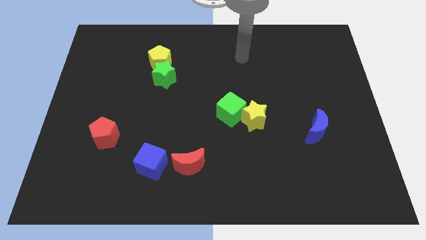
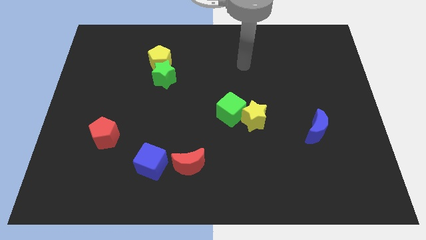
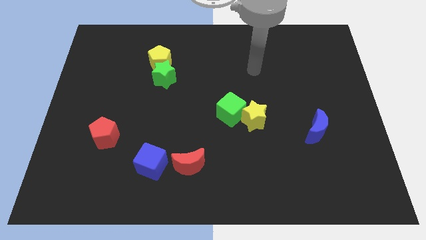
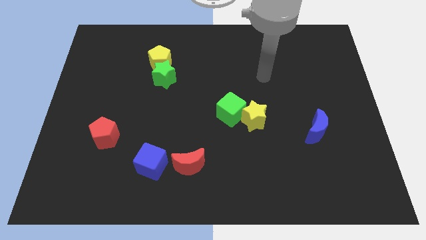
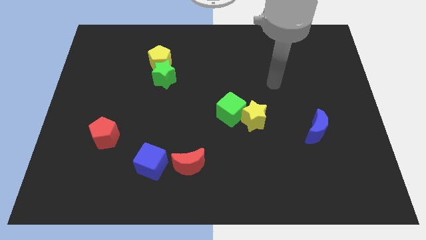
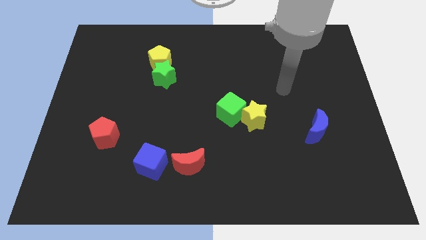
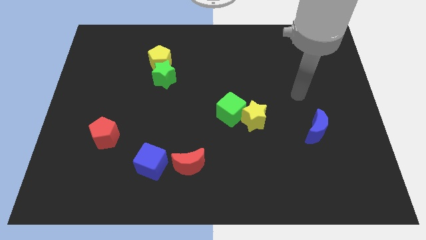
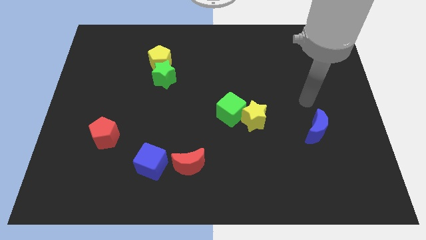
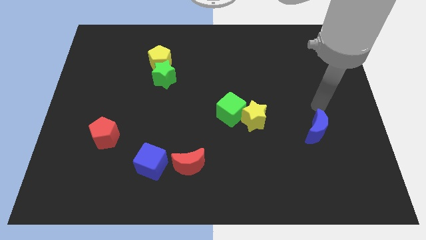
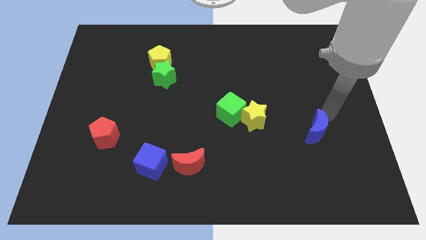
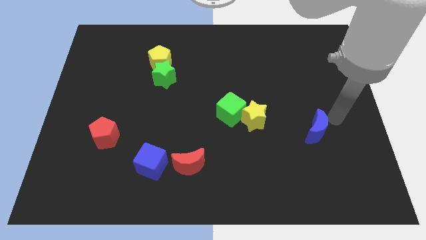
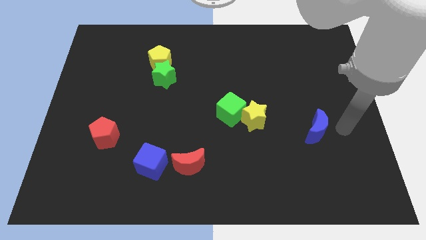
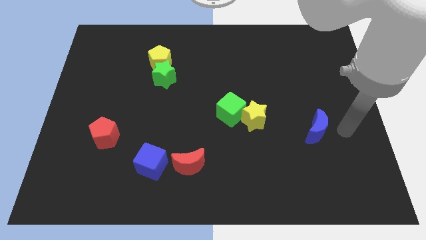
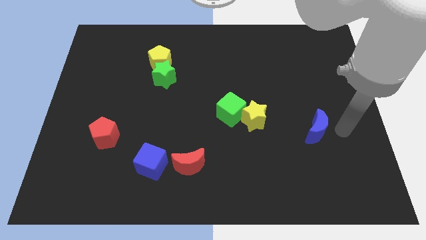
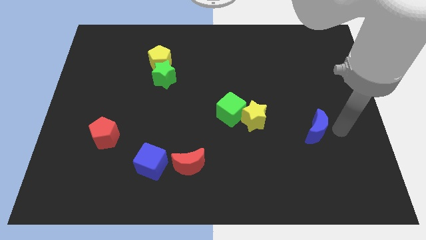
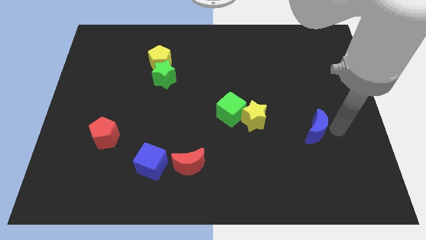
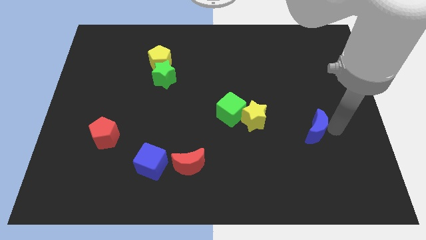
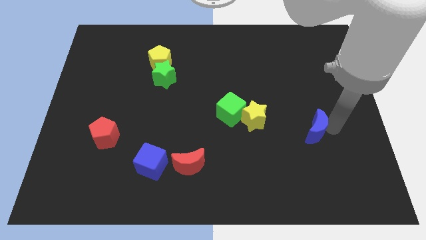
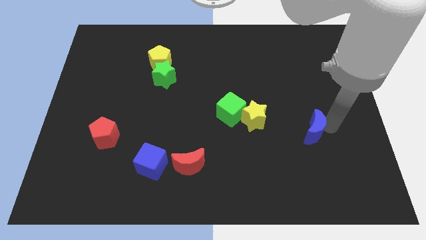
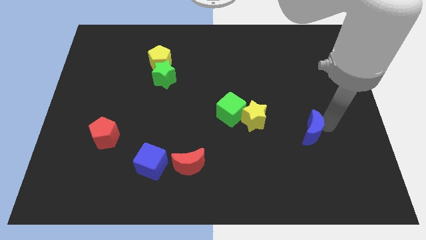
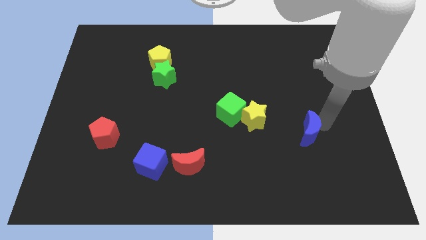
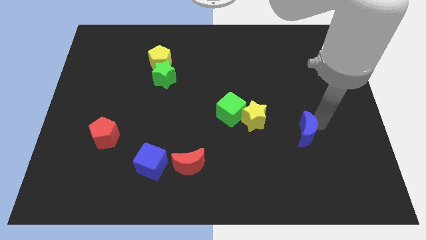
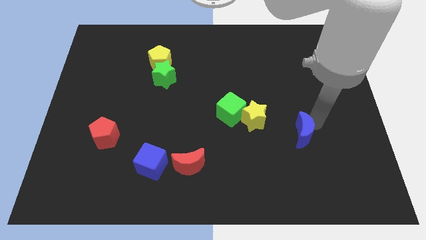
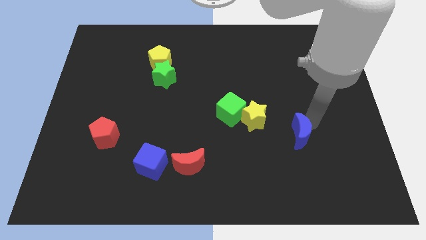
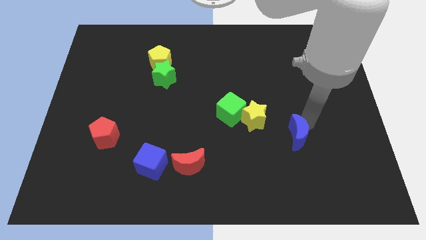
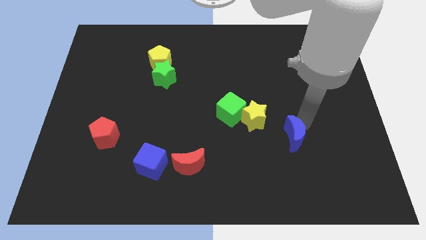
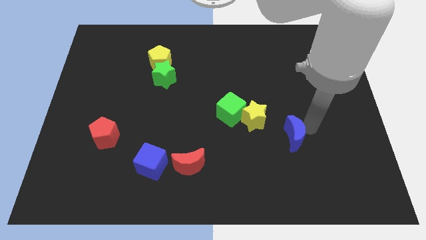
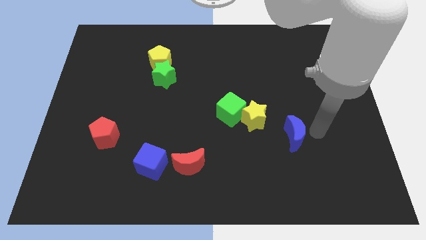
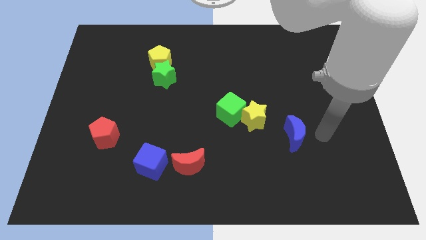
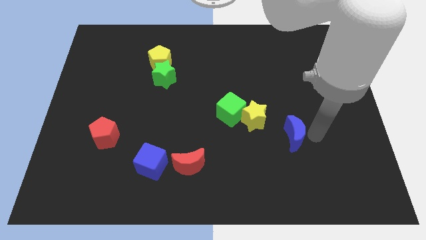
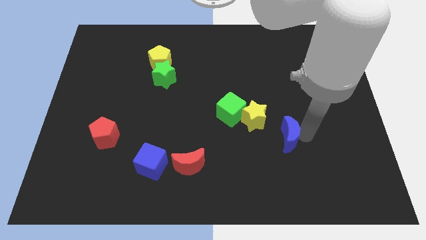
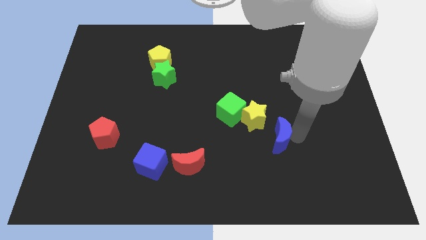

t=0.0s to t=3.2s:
slightly push the blue moon left

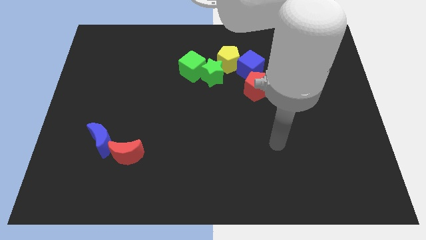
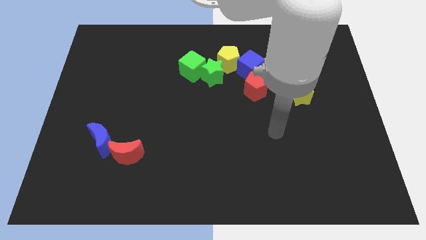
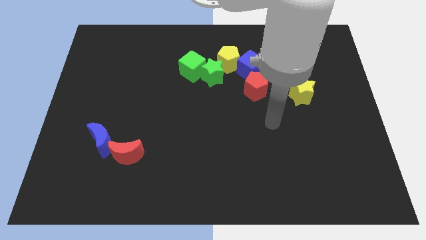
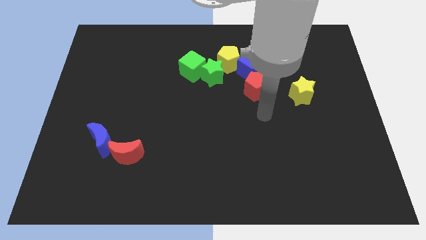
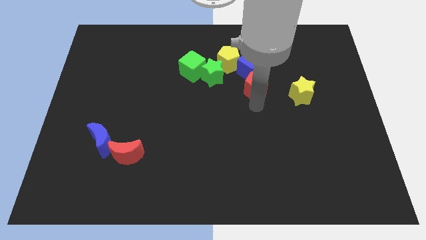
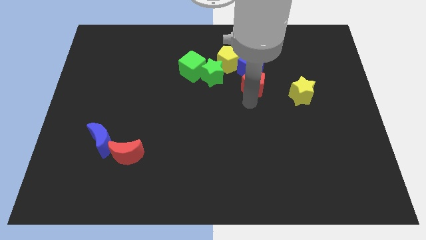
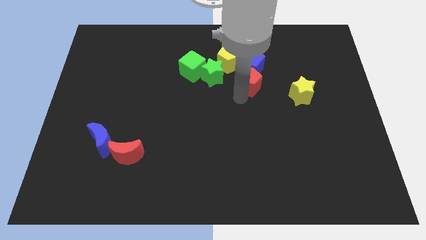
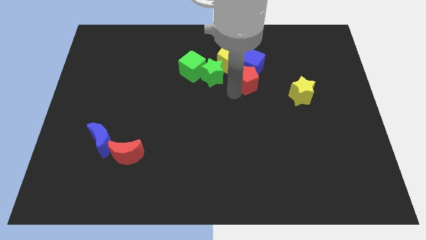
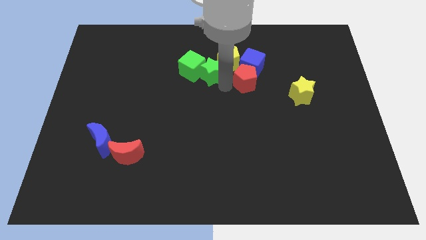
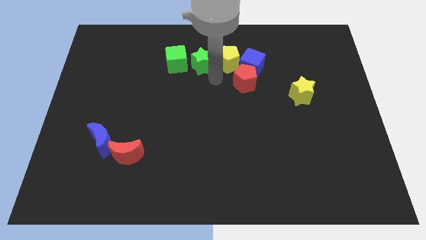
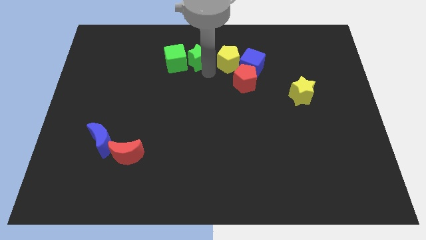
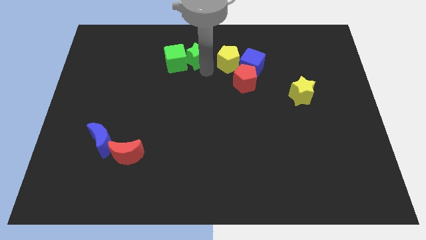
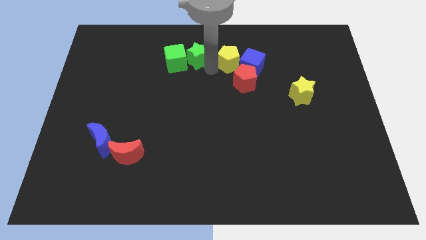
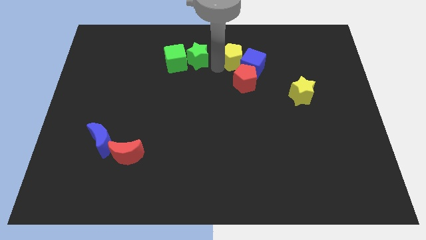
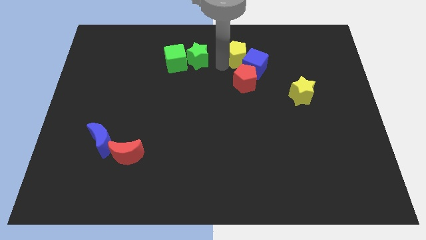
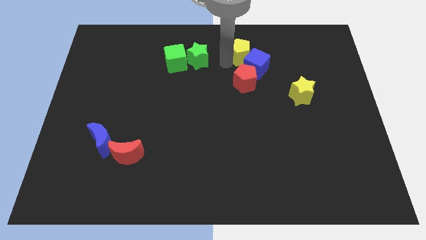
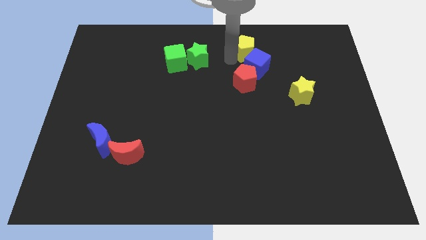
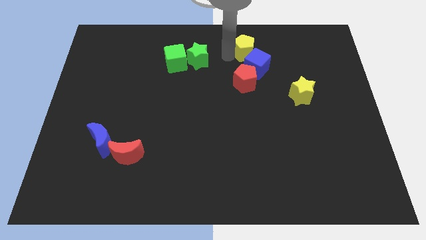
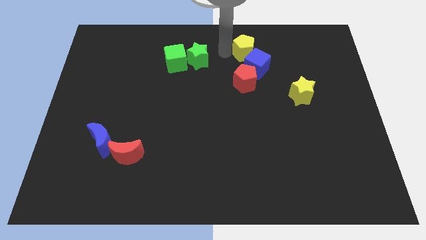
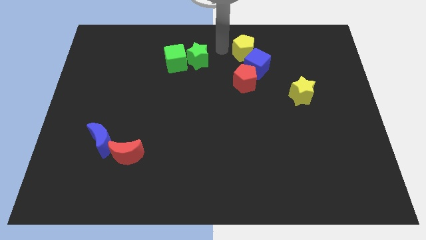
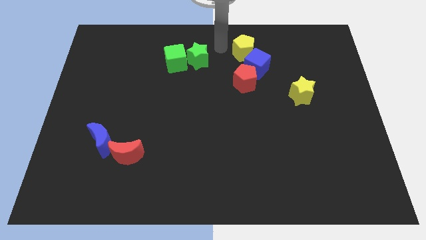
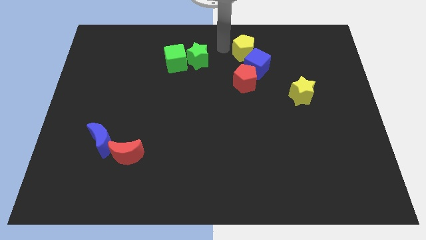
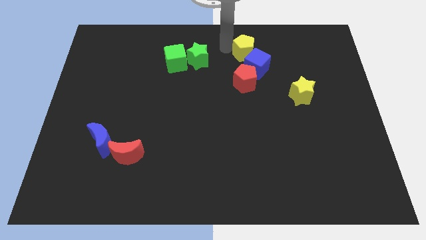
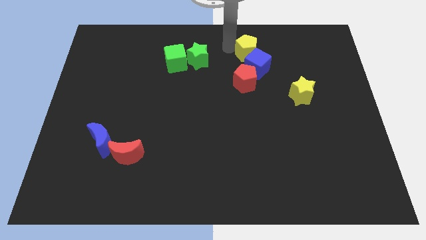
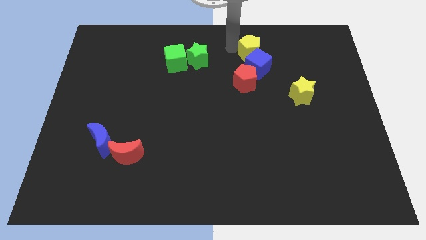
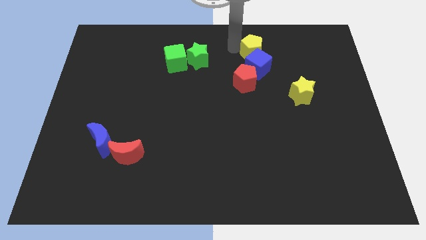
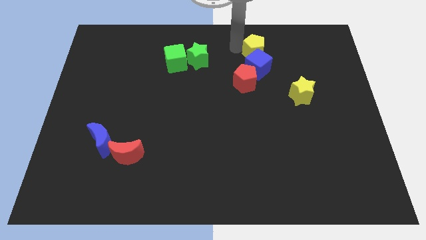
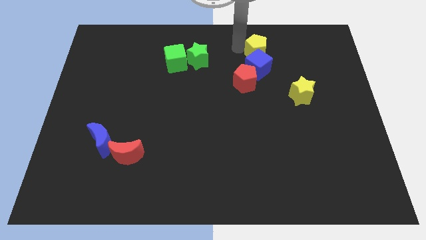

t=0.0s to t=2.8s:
move the yellow pentagon slightly right

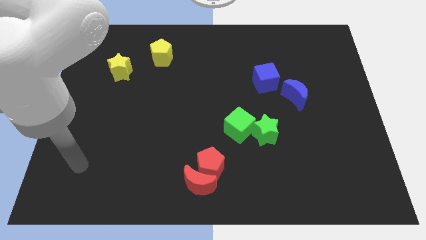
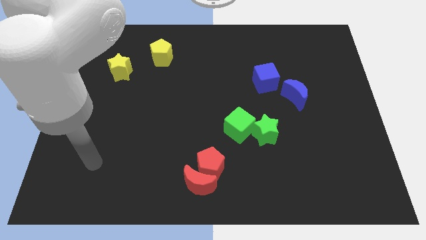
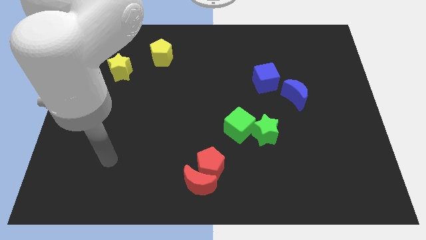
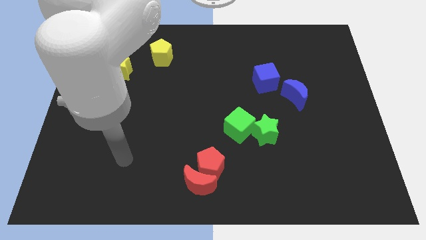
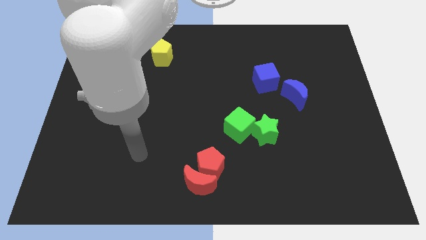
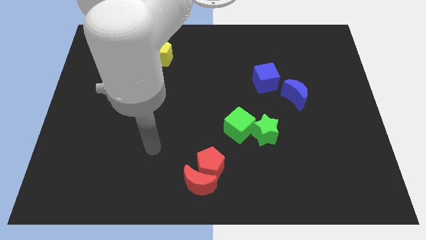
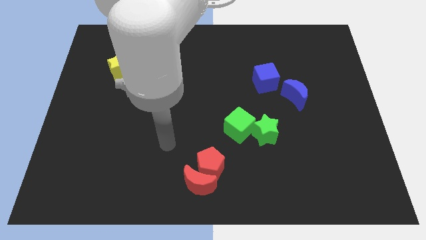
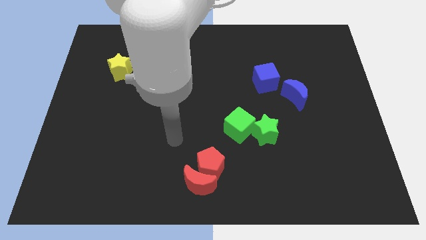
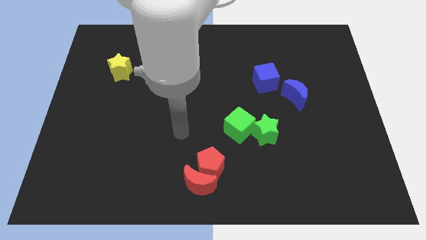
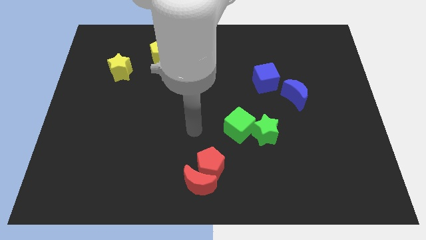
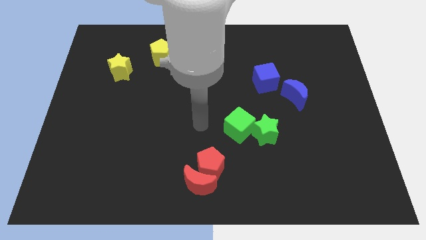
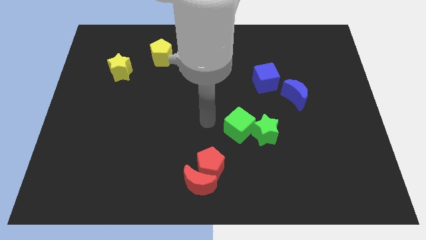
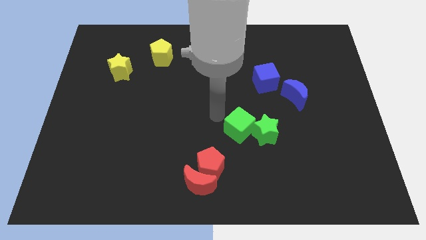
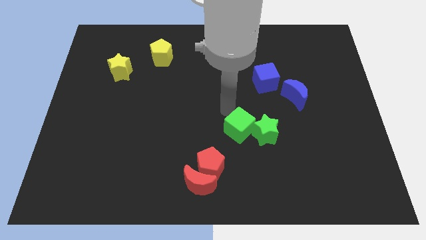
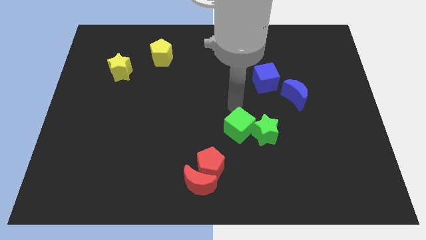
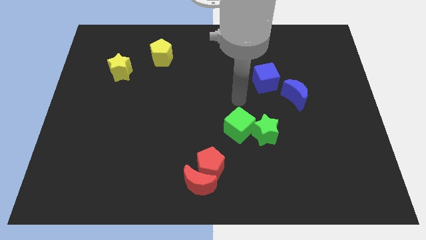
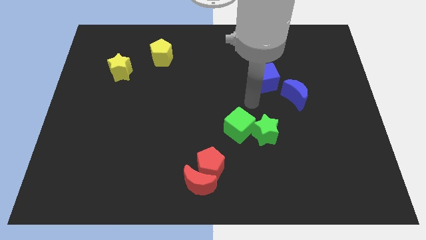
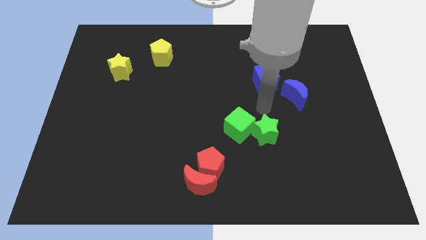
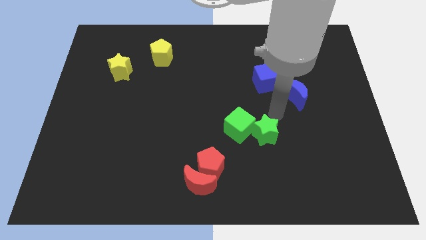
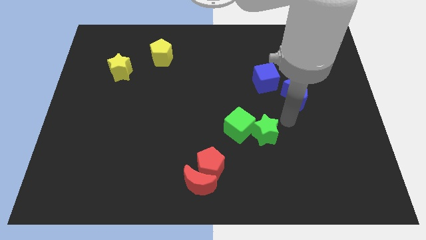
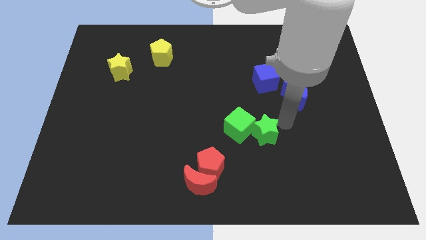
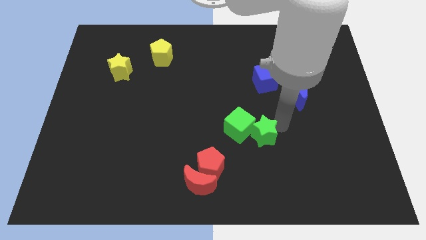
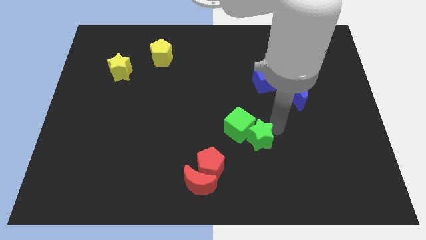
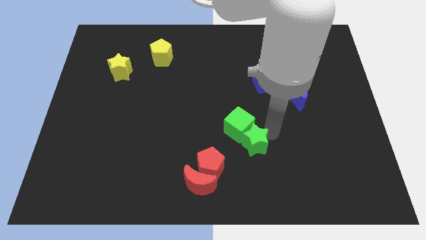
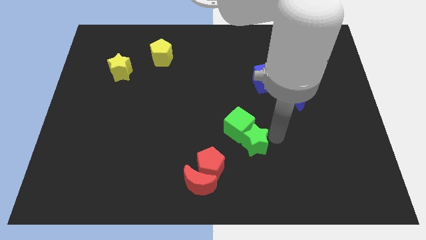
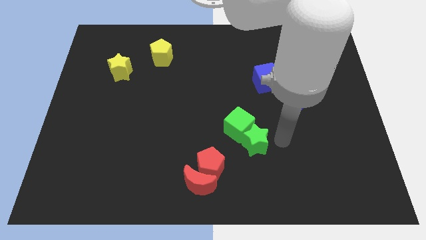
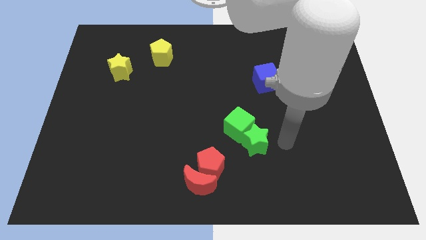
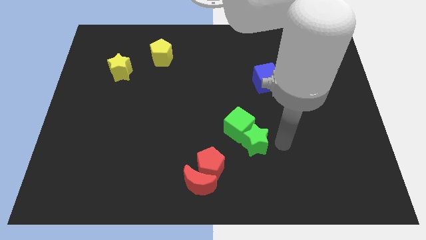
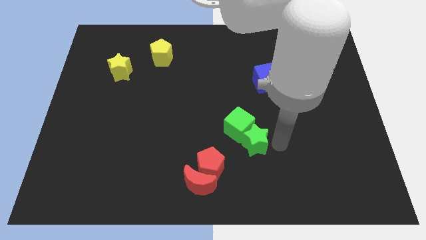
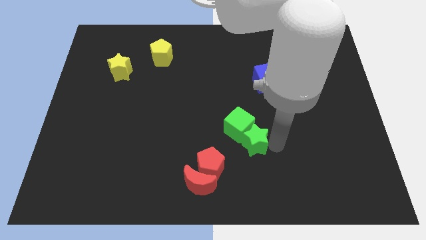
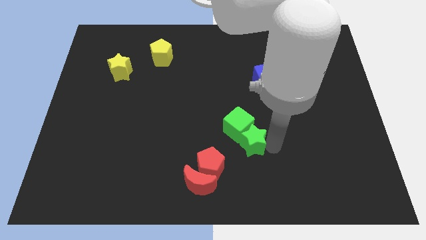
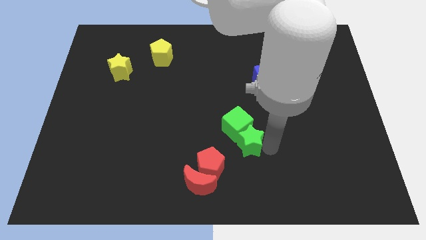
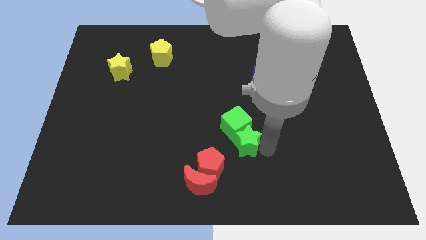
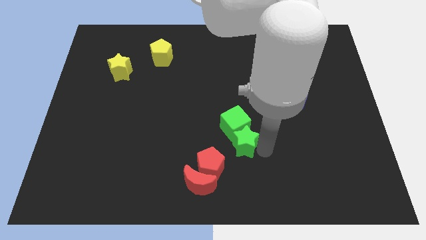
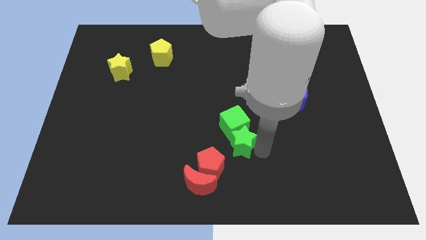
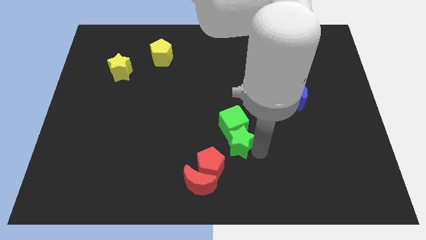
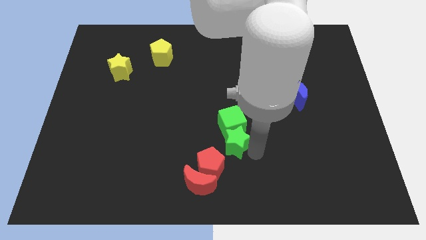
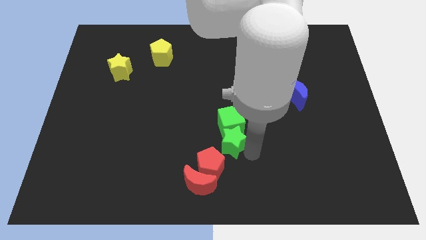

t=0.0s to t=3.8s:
move the green star to the left a bit
